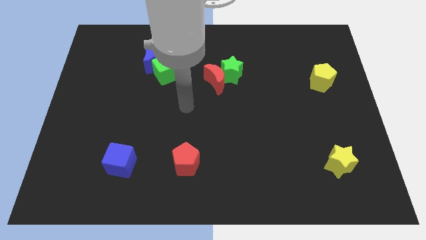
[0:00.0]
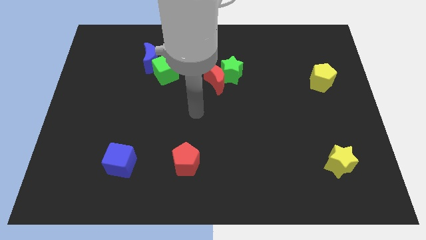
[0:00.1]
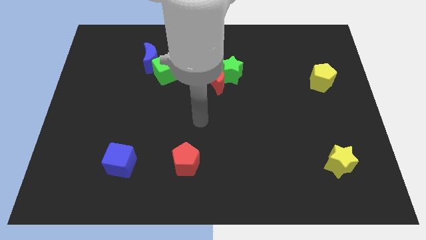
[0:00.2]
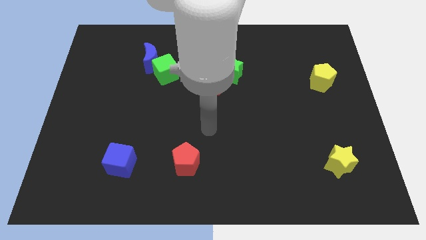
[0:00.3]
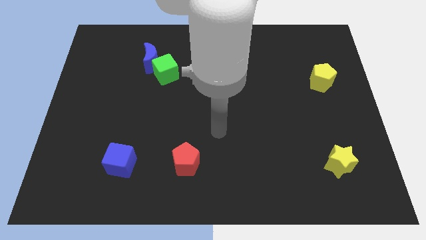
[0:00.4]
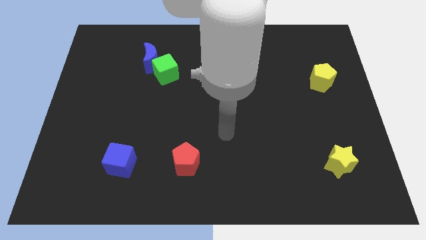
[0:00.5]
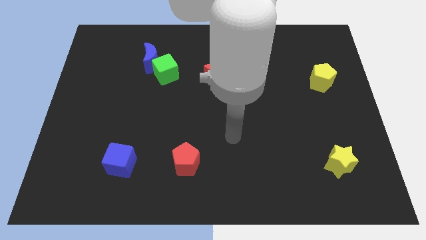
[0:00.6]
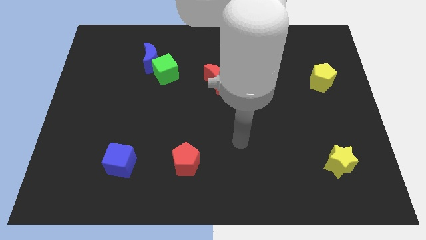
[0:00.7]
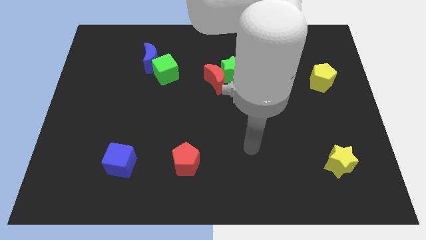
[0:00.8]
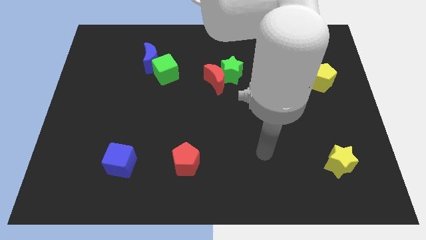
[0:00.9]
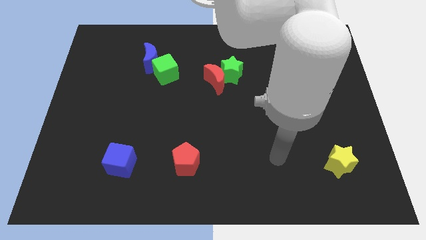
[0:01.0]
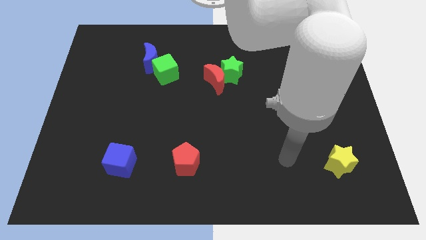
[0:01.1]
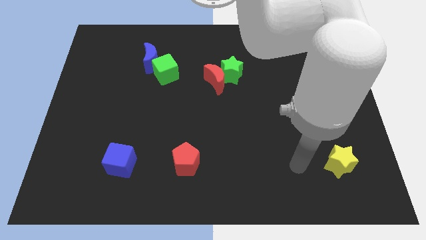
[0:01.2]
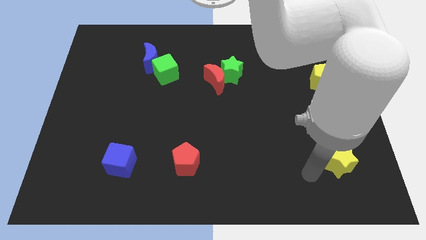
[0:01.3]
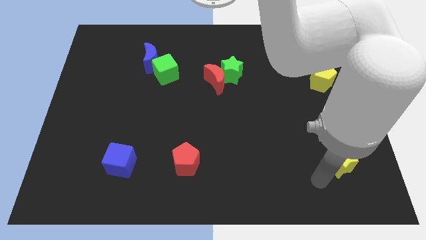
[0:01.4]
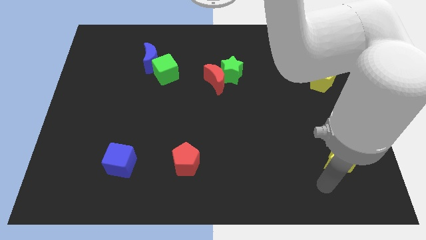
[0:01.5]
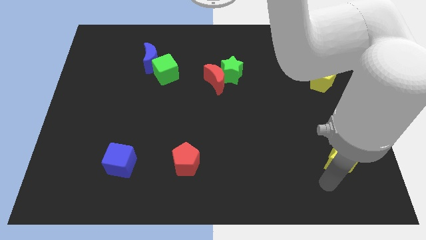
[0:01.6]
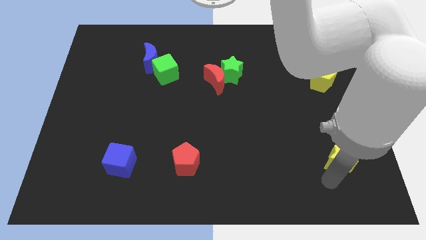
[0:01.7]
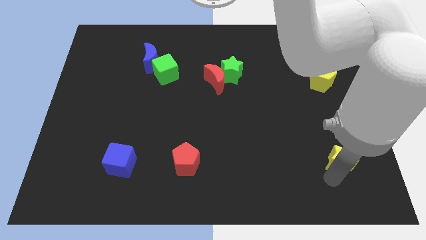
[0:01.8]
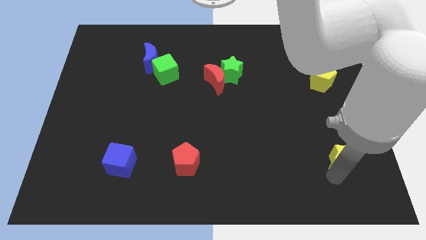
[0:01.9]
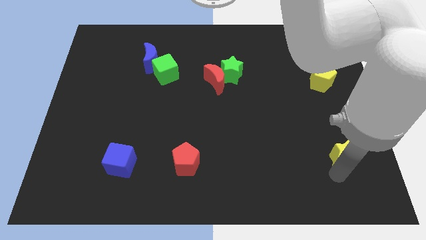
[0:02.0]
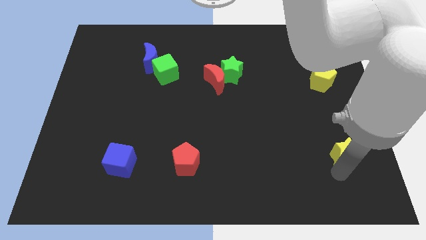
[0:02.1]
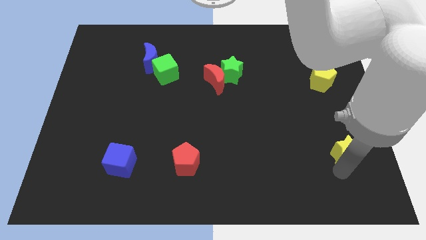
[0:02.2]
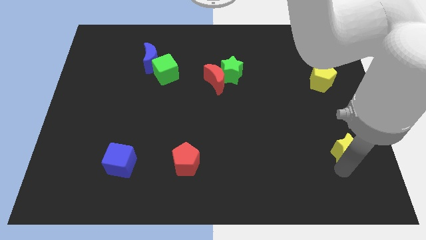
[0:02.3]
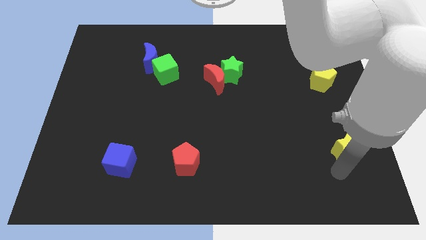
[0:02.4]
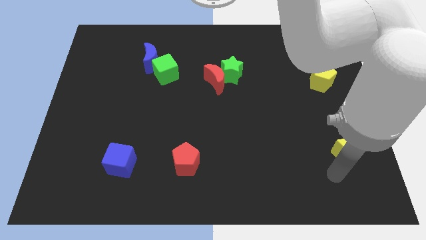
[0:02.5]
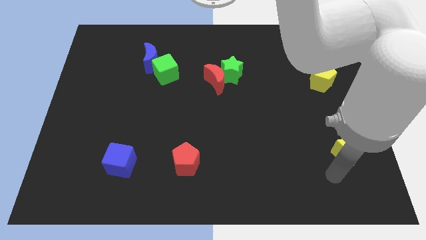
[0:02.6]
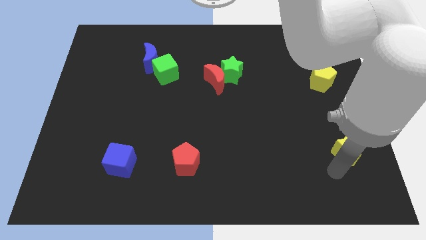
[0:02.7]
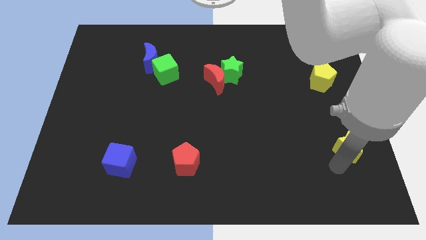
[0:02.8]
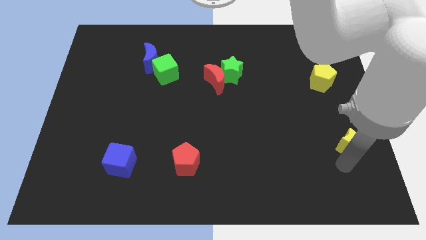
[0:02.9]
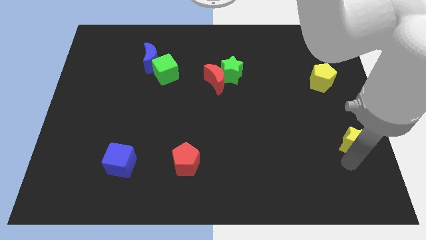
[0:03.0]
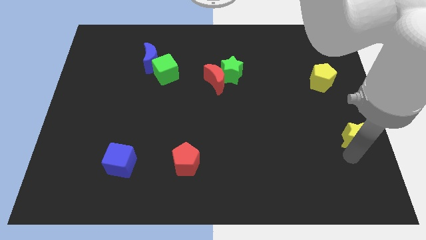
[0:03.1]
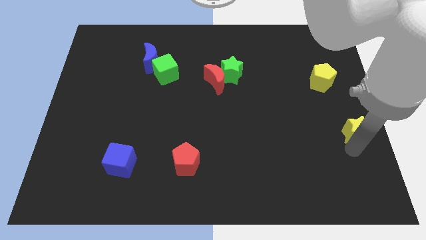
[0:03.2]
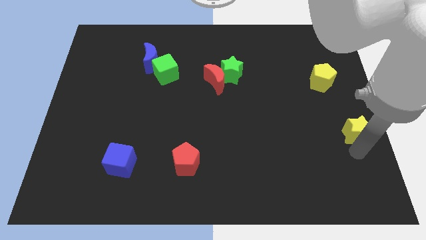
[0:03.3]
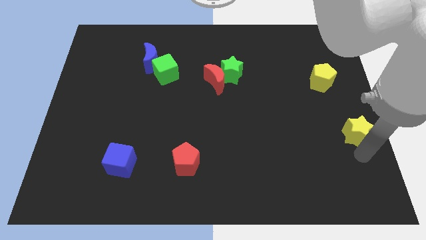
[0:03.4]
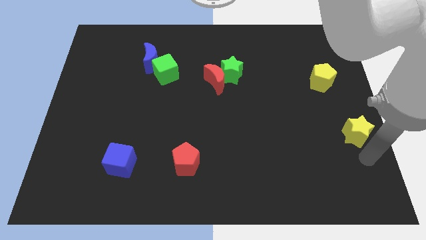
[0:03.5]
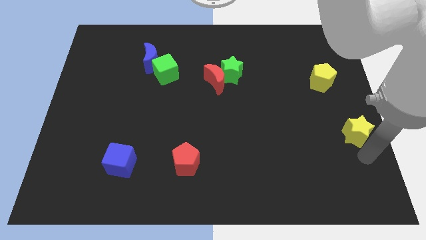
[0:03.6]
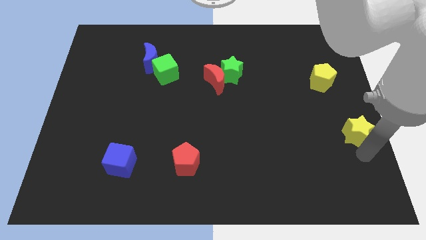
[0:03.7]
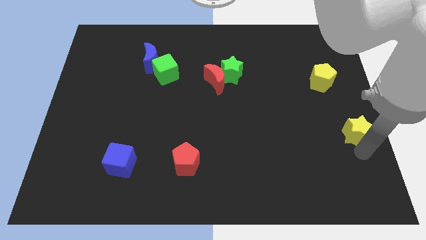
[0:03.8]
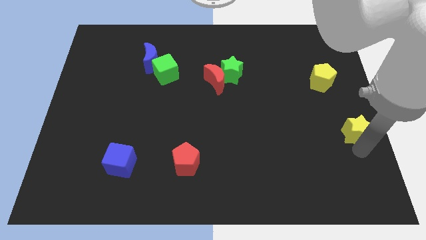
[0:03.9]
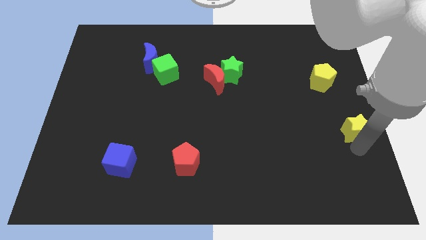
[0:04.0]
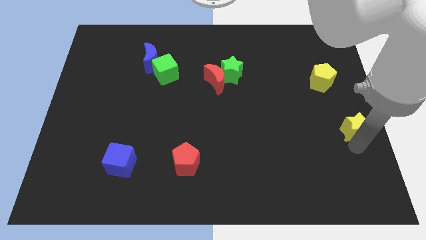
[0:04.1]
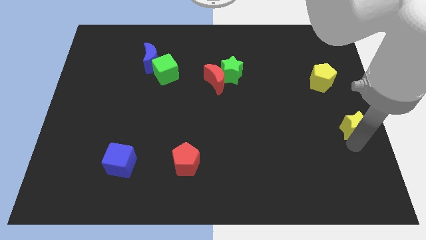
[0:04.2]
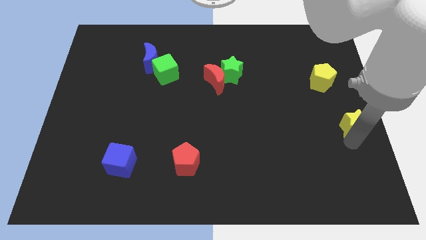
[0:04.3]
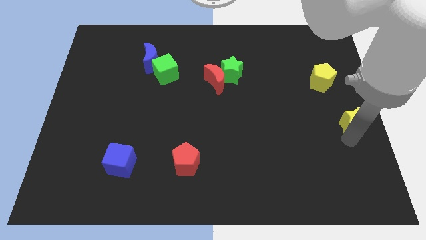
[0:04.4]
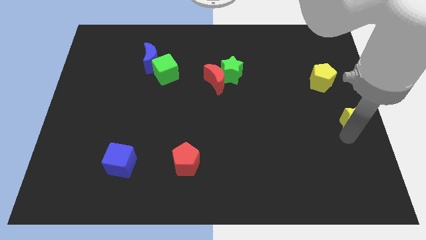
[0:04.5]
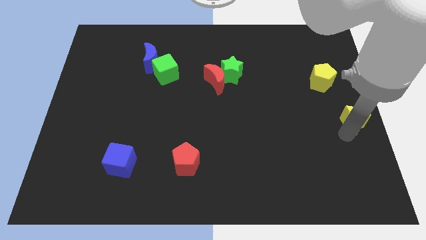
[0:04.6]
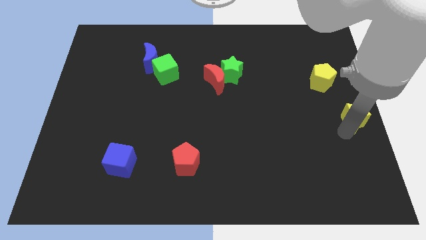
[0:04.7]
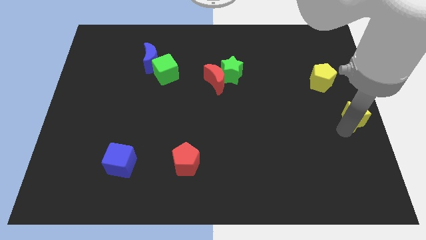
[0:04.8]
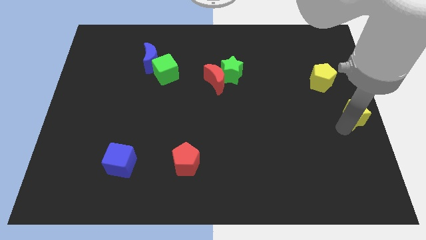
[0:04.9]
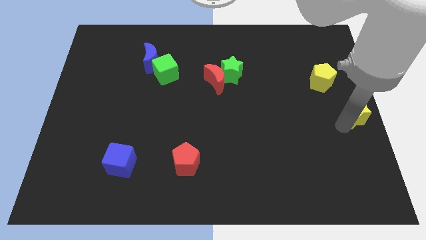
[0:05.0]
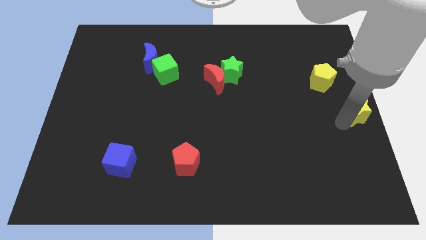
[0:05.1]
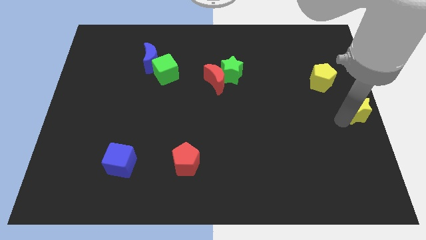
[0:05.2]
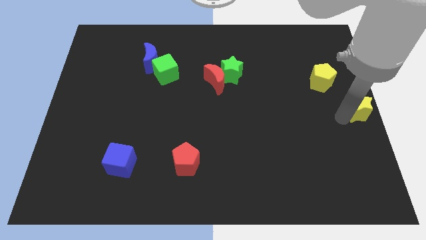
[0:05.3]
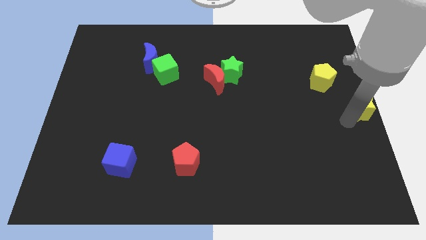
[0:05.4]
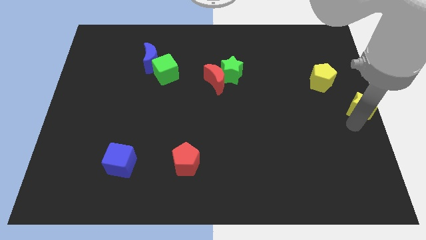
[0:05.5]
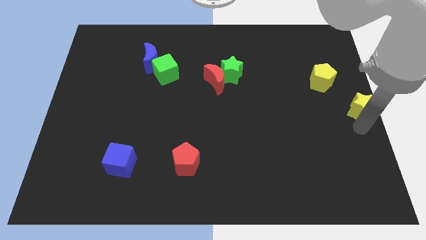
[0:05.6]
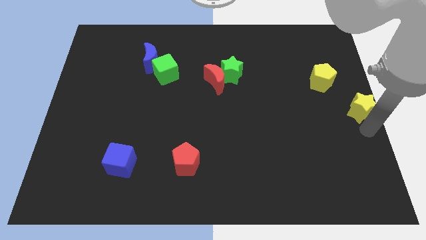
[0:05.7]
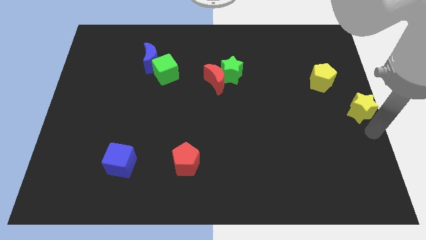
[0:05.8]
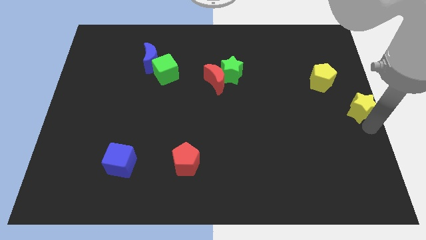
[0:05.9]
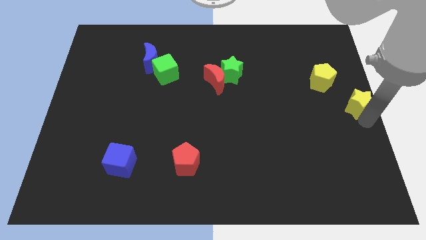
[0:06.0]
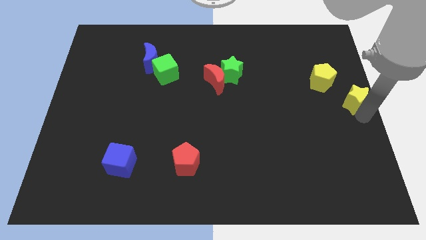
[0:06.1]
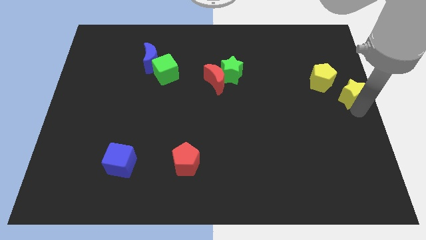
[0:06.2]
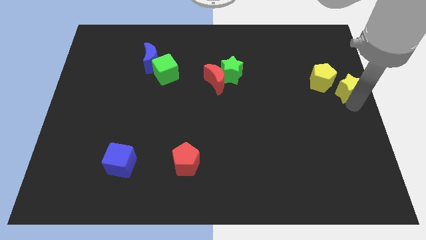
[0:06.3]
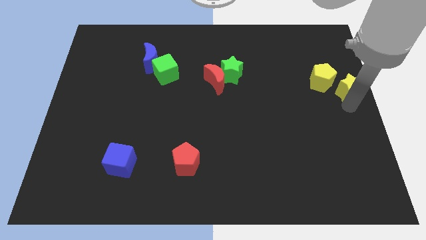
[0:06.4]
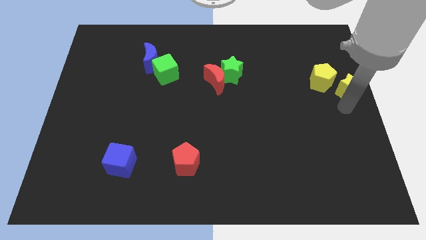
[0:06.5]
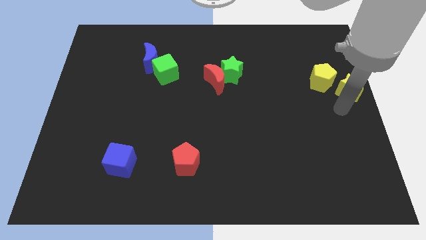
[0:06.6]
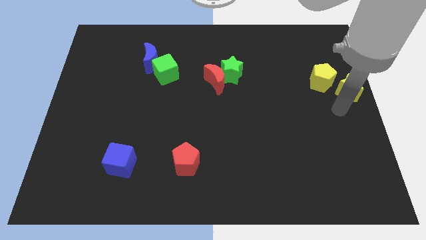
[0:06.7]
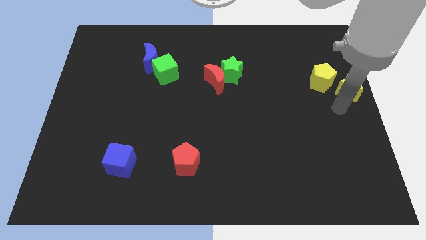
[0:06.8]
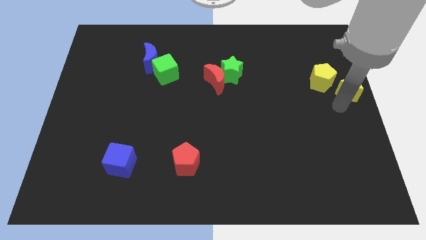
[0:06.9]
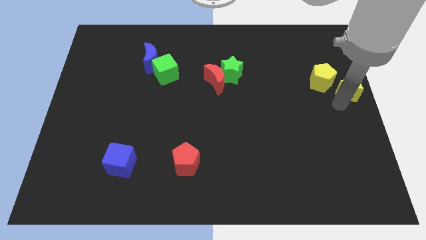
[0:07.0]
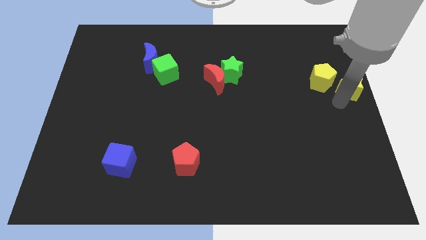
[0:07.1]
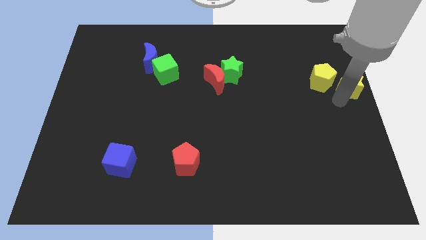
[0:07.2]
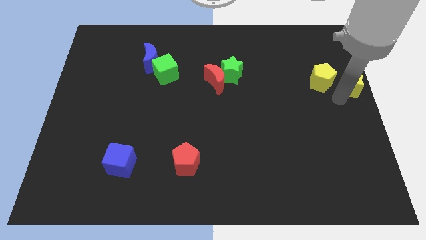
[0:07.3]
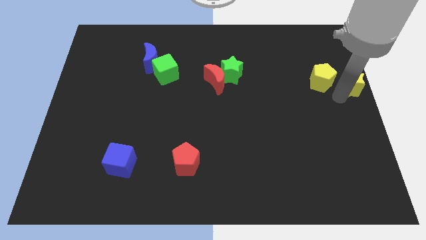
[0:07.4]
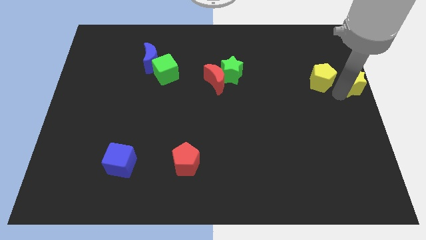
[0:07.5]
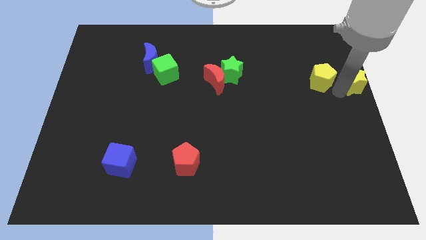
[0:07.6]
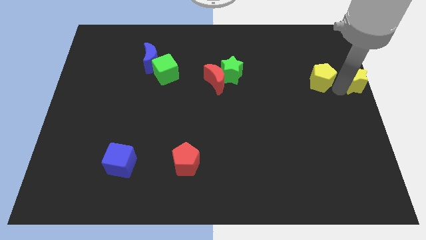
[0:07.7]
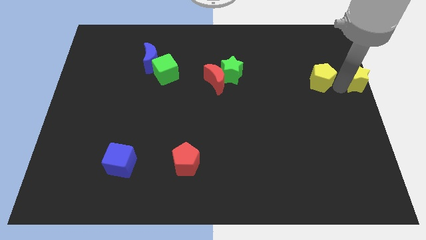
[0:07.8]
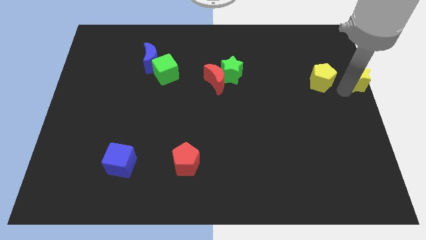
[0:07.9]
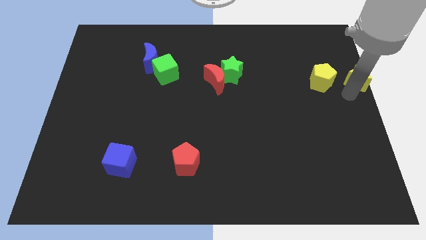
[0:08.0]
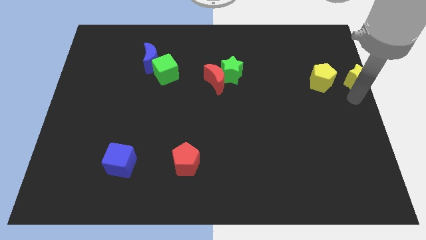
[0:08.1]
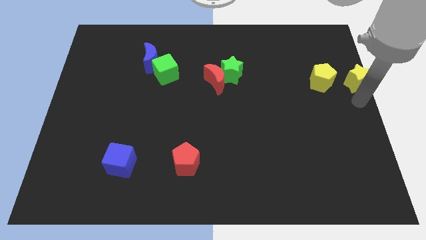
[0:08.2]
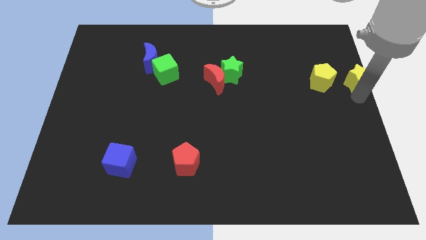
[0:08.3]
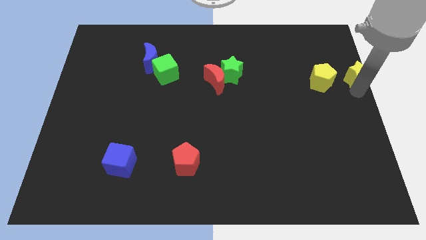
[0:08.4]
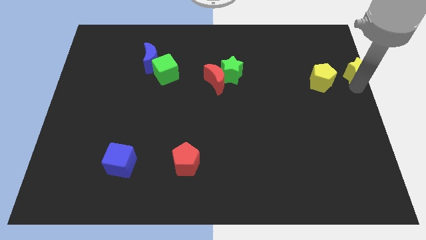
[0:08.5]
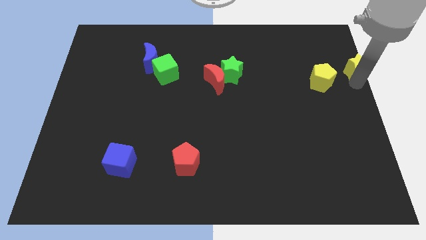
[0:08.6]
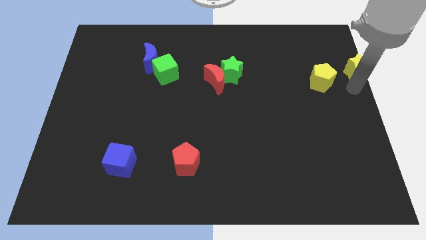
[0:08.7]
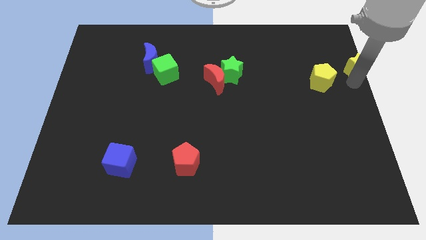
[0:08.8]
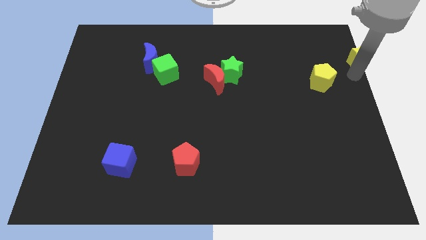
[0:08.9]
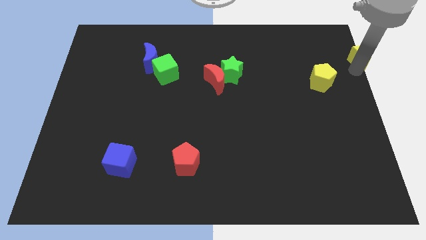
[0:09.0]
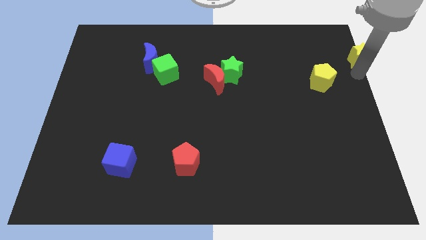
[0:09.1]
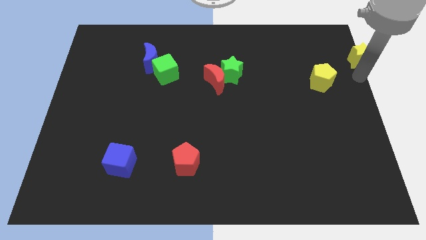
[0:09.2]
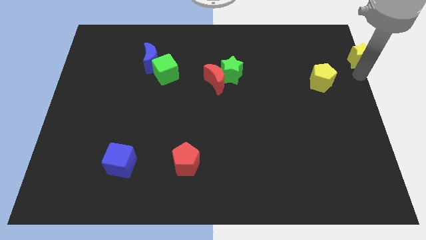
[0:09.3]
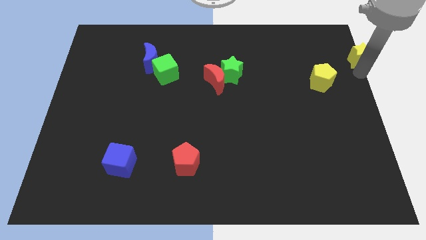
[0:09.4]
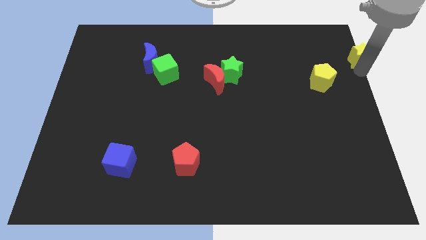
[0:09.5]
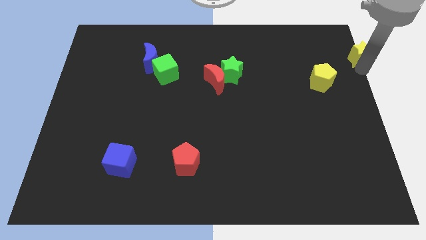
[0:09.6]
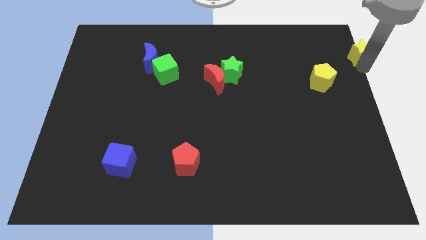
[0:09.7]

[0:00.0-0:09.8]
slide the yellow star to the top right of the board
